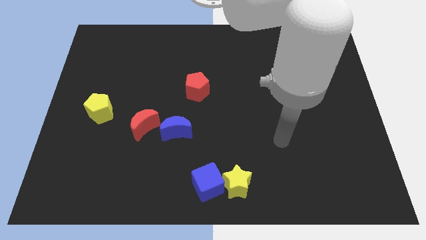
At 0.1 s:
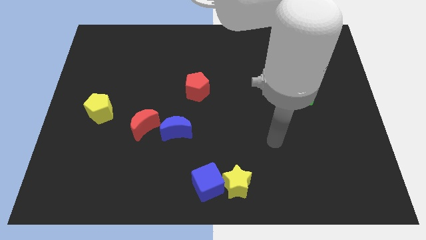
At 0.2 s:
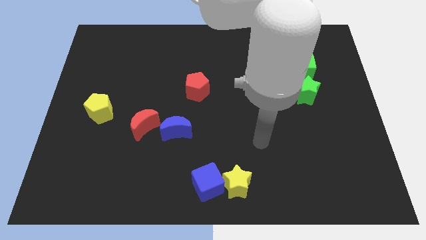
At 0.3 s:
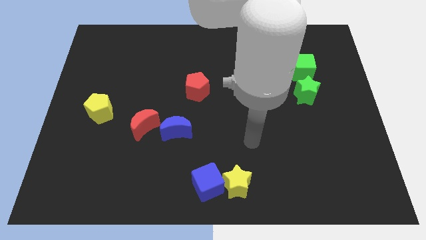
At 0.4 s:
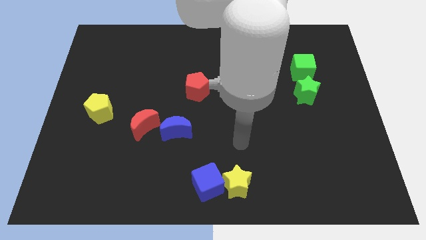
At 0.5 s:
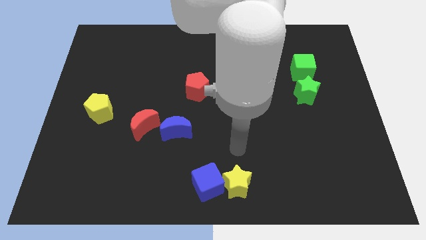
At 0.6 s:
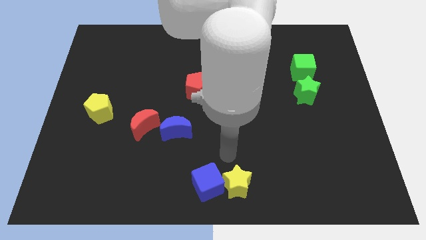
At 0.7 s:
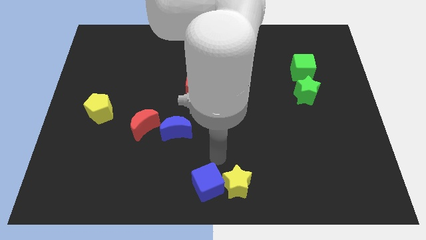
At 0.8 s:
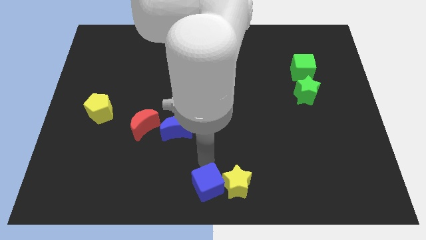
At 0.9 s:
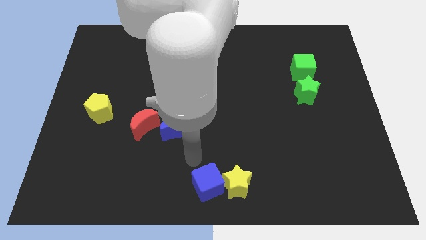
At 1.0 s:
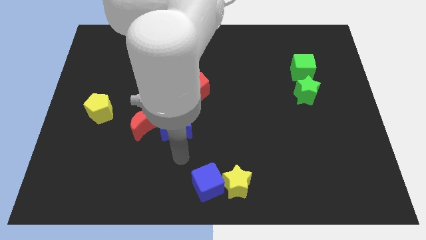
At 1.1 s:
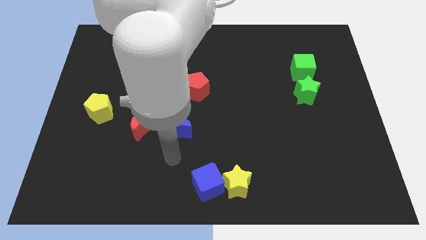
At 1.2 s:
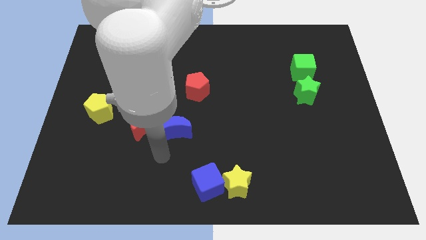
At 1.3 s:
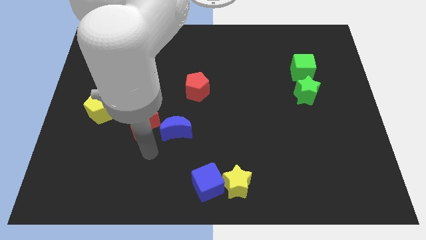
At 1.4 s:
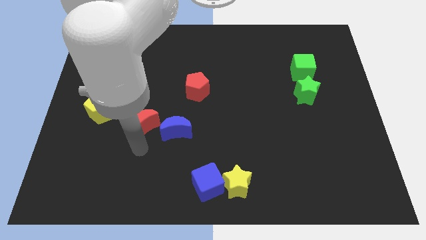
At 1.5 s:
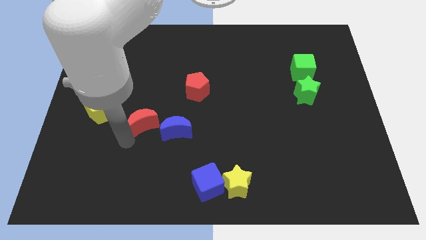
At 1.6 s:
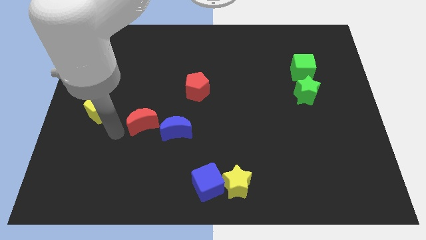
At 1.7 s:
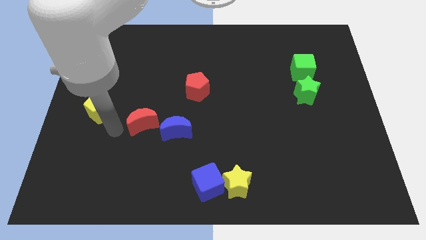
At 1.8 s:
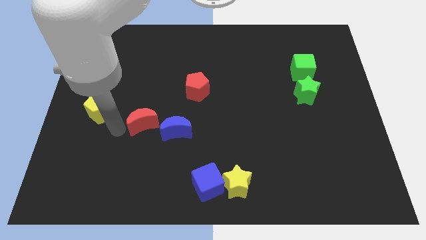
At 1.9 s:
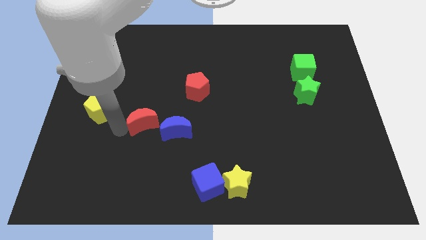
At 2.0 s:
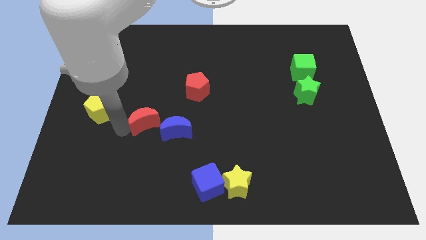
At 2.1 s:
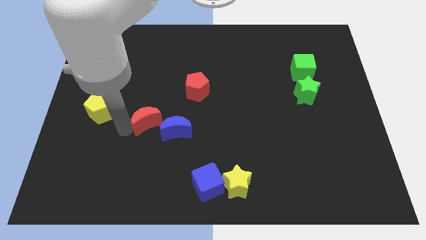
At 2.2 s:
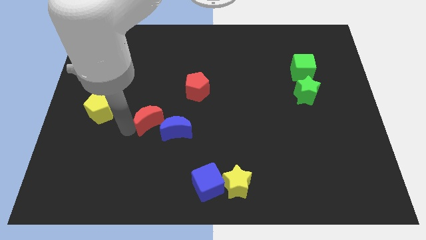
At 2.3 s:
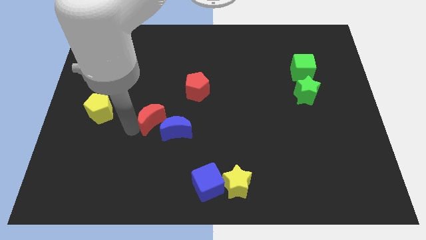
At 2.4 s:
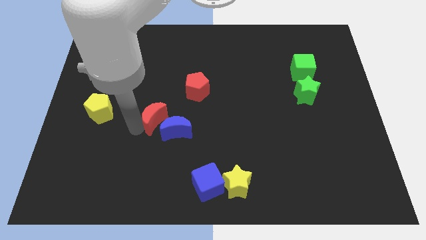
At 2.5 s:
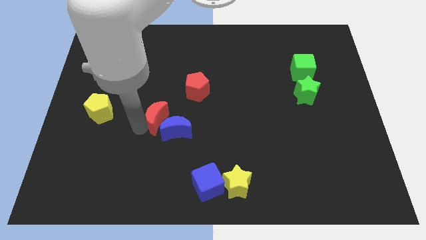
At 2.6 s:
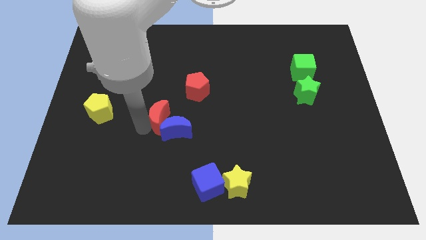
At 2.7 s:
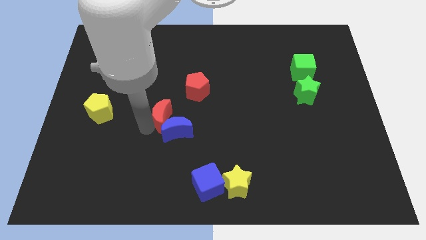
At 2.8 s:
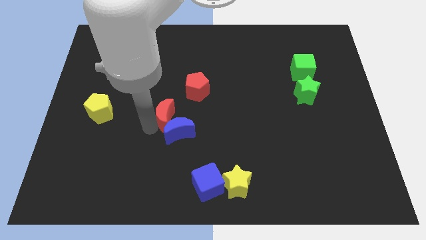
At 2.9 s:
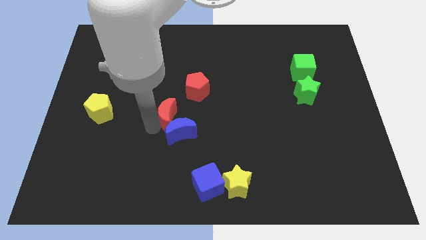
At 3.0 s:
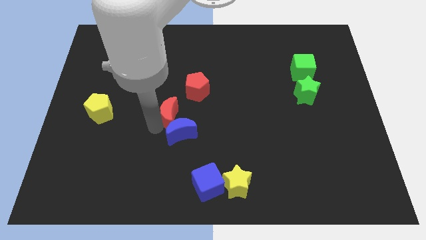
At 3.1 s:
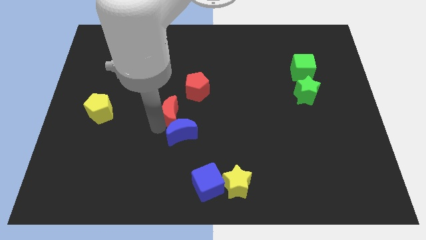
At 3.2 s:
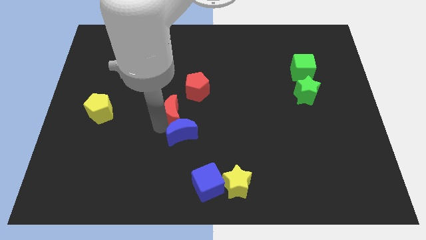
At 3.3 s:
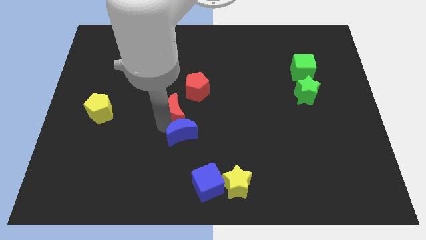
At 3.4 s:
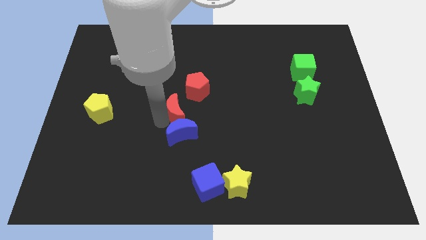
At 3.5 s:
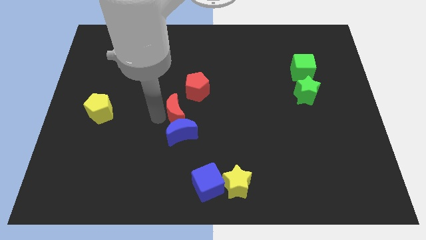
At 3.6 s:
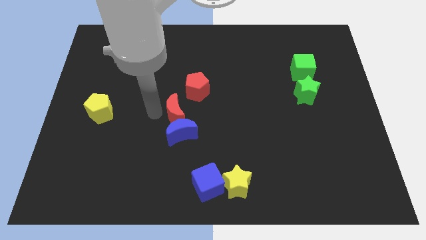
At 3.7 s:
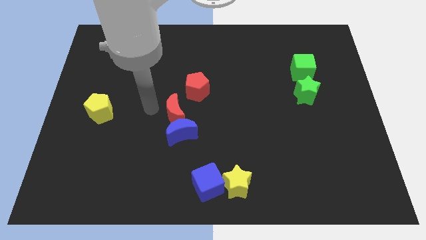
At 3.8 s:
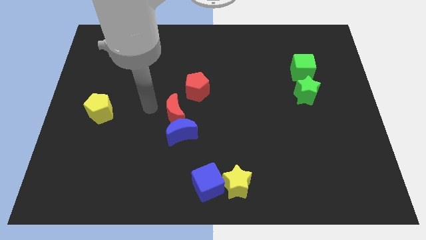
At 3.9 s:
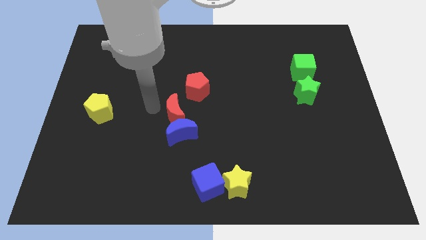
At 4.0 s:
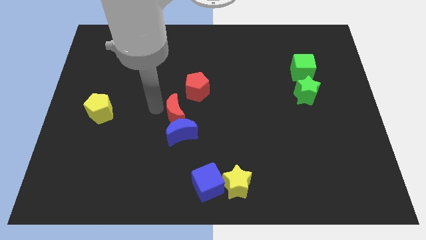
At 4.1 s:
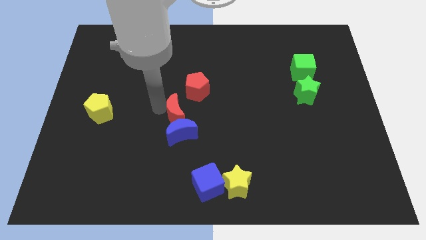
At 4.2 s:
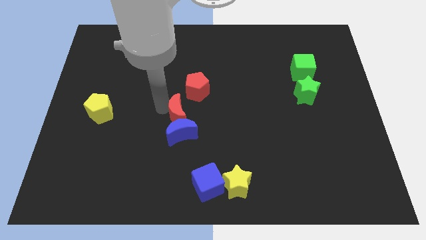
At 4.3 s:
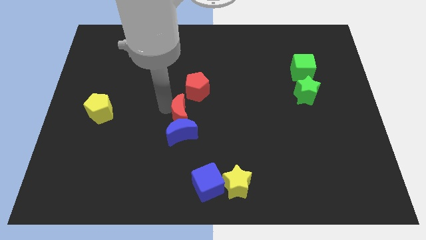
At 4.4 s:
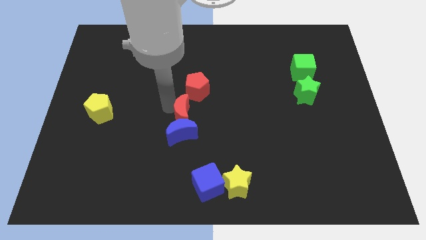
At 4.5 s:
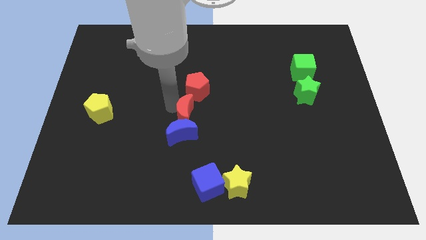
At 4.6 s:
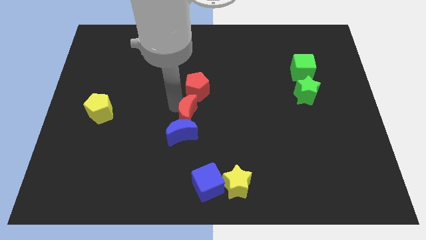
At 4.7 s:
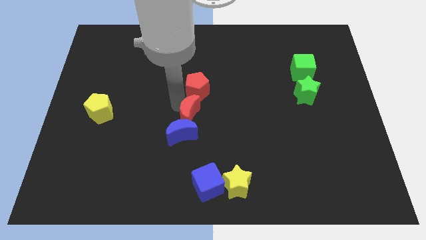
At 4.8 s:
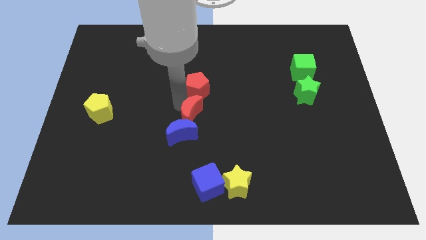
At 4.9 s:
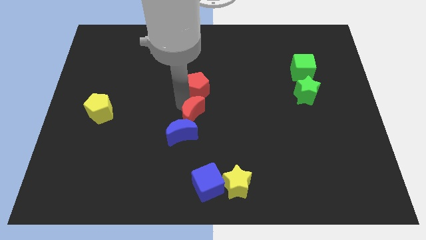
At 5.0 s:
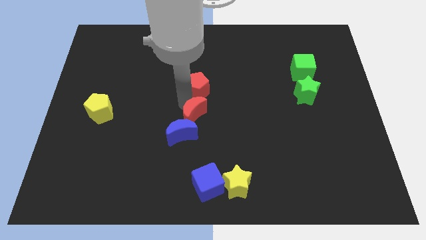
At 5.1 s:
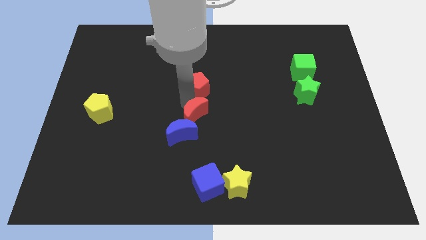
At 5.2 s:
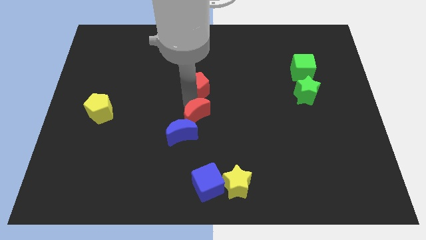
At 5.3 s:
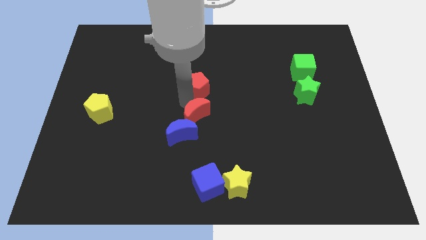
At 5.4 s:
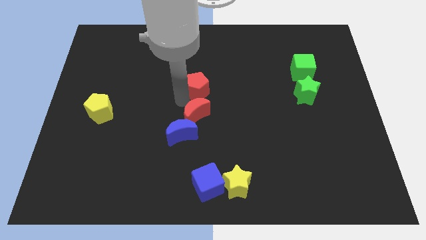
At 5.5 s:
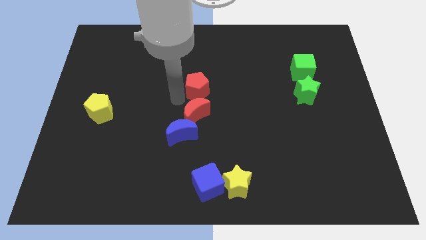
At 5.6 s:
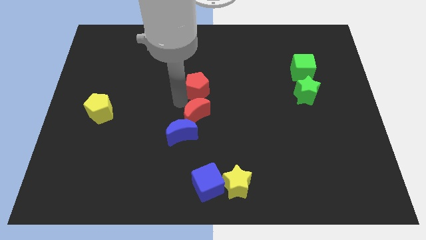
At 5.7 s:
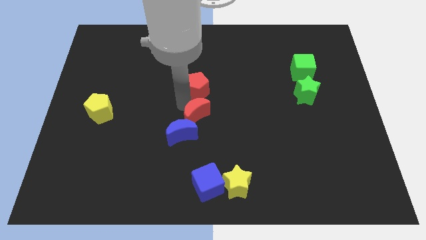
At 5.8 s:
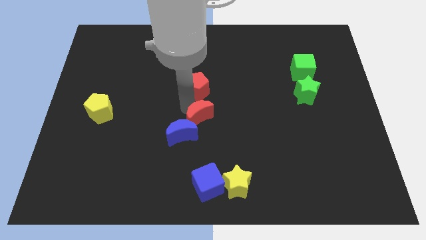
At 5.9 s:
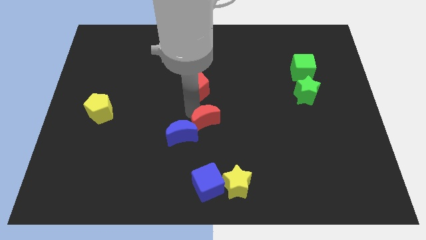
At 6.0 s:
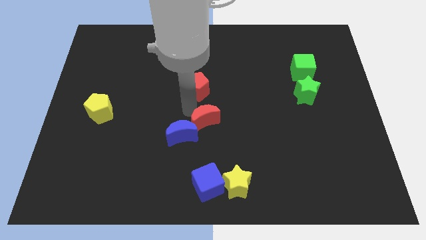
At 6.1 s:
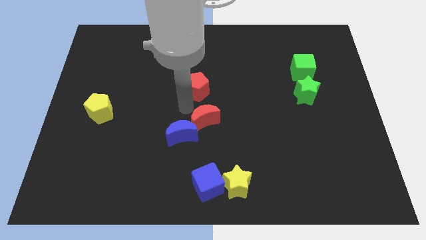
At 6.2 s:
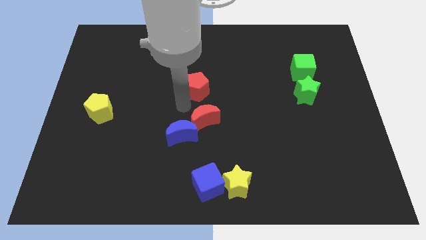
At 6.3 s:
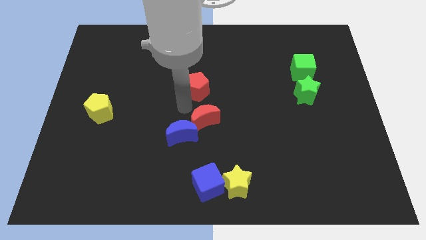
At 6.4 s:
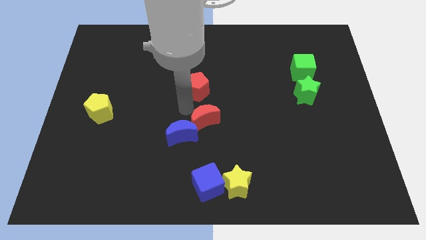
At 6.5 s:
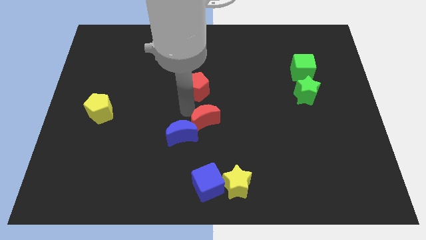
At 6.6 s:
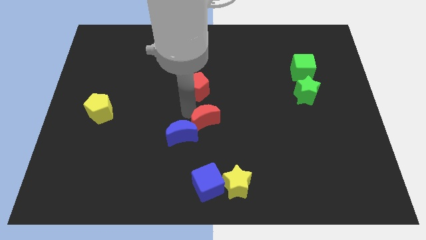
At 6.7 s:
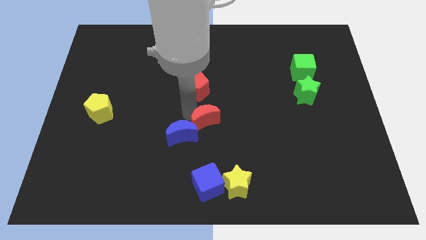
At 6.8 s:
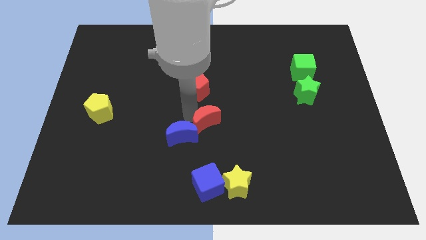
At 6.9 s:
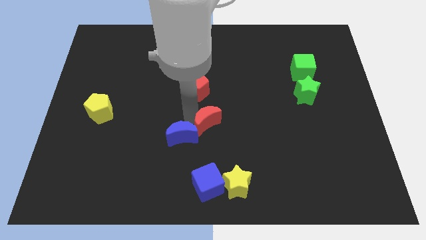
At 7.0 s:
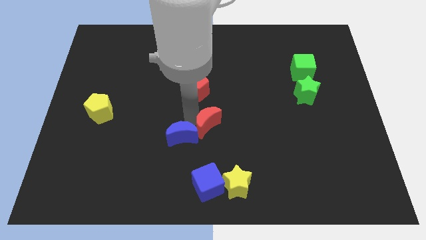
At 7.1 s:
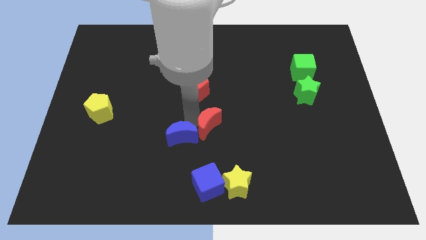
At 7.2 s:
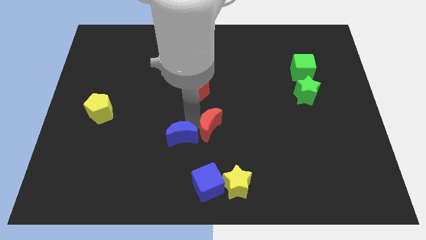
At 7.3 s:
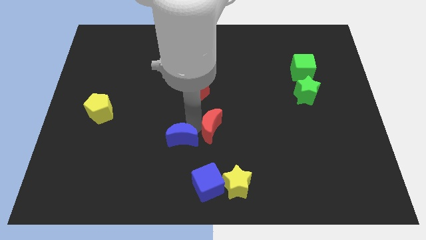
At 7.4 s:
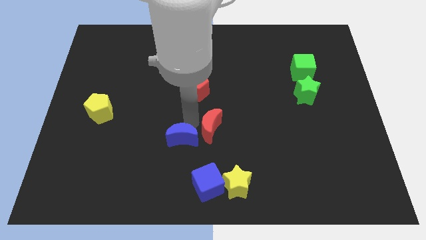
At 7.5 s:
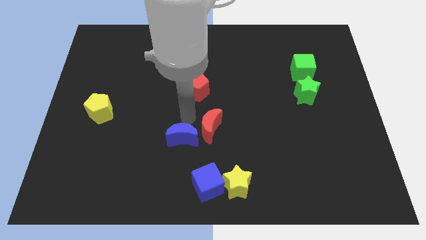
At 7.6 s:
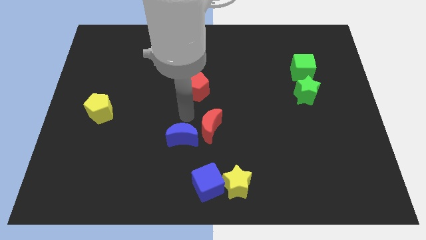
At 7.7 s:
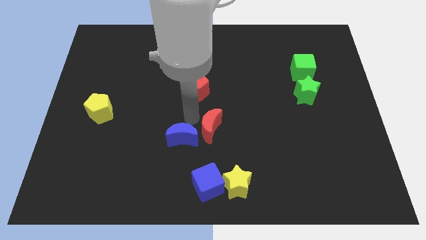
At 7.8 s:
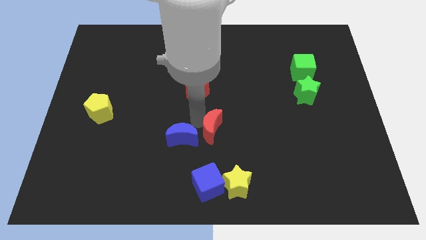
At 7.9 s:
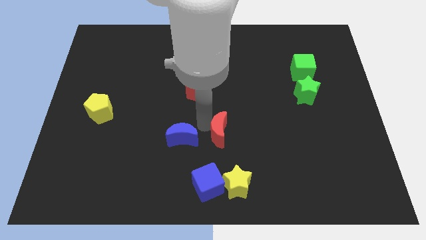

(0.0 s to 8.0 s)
slide the red moon above the yellow star
